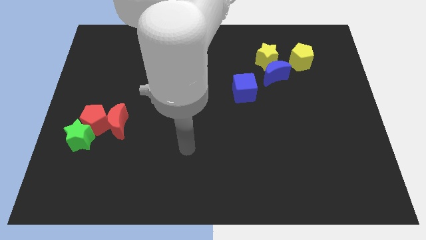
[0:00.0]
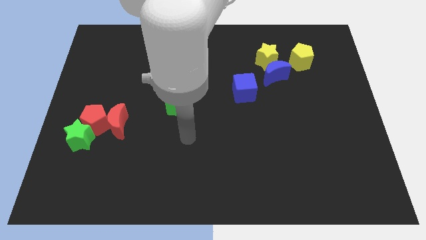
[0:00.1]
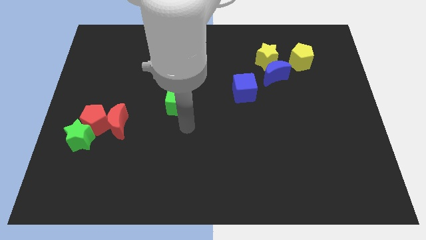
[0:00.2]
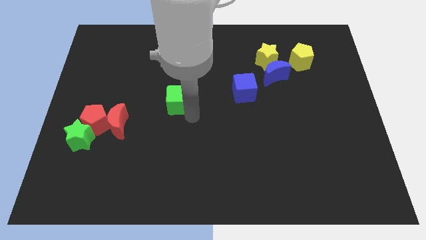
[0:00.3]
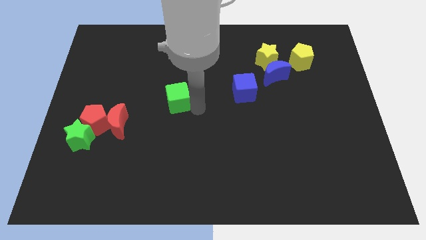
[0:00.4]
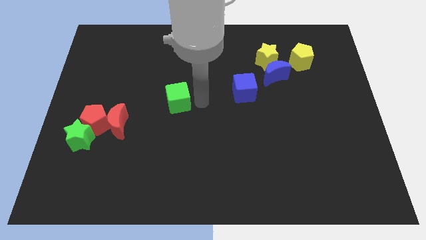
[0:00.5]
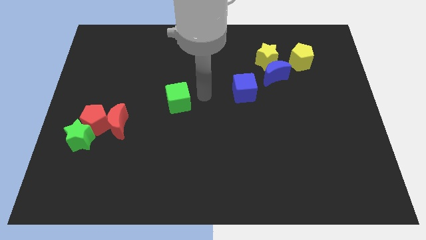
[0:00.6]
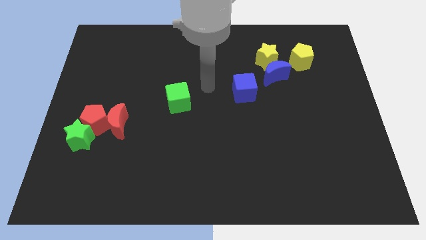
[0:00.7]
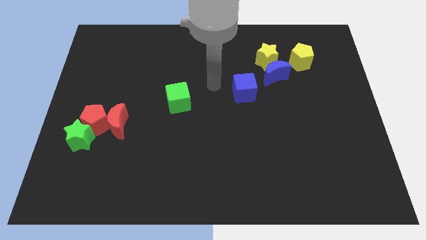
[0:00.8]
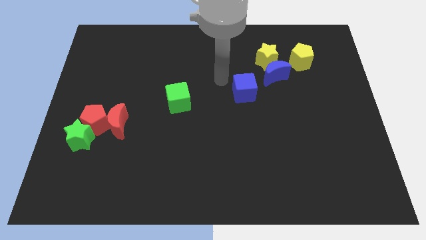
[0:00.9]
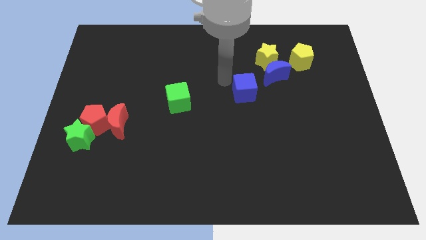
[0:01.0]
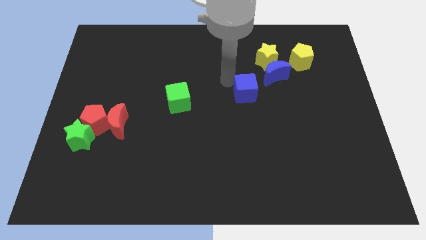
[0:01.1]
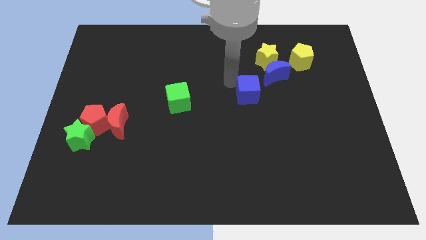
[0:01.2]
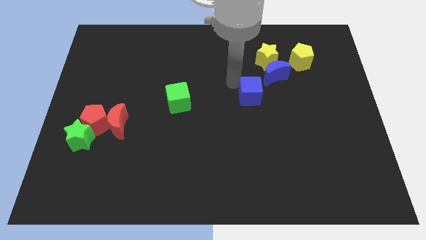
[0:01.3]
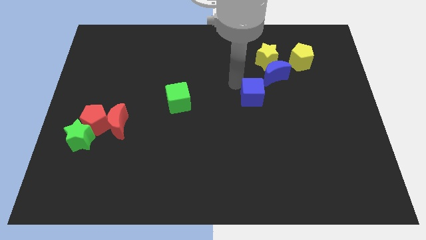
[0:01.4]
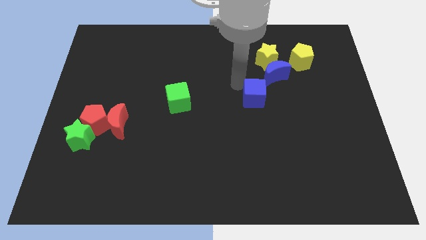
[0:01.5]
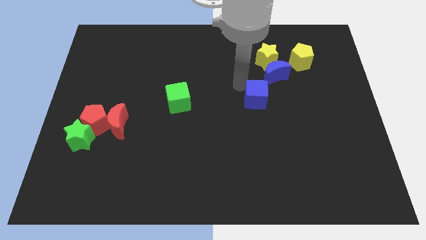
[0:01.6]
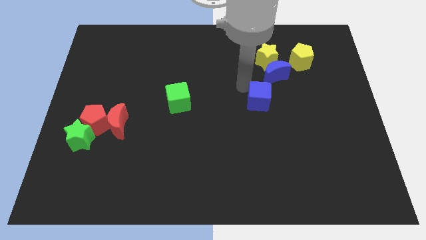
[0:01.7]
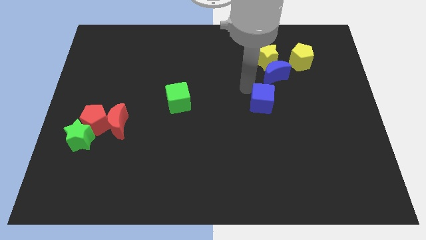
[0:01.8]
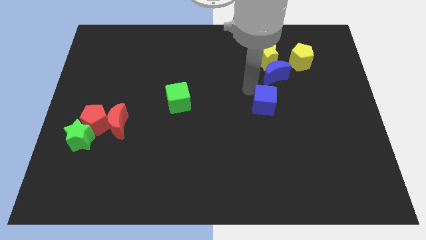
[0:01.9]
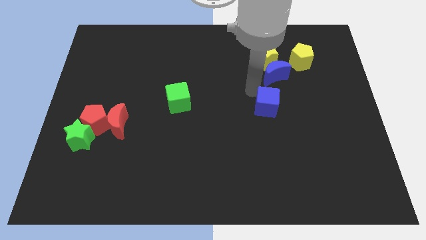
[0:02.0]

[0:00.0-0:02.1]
slightly push the blue cube down and right diagonally

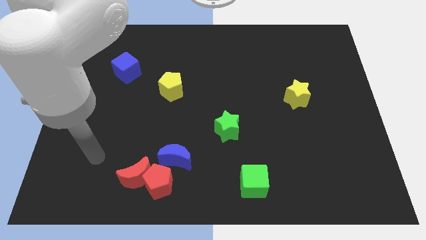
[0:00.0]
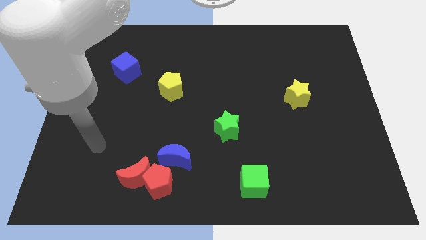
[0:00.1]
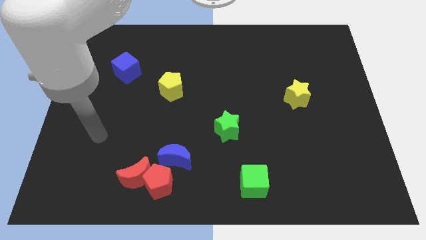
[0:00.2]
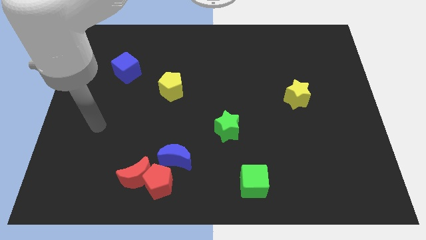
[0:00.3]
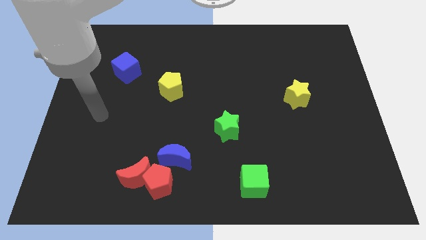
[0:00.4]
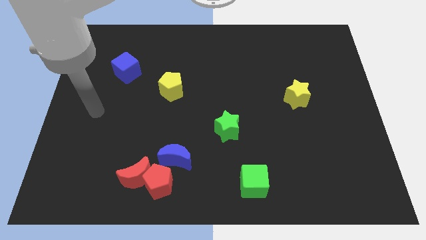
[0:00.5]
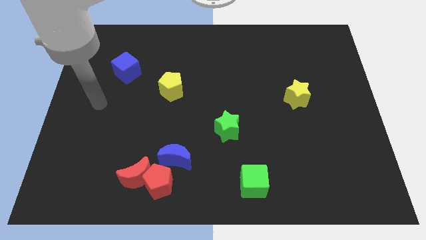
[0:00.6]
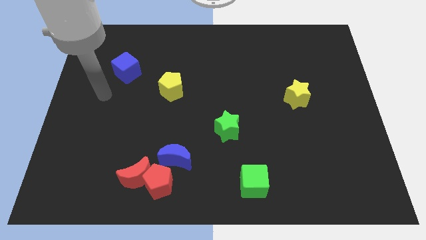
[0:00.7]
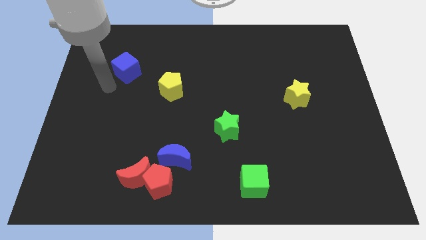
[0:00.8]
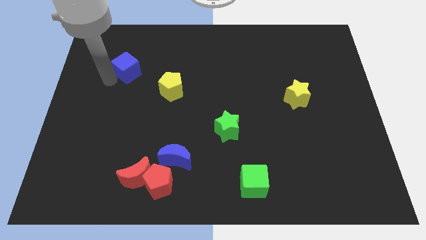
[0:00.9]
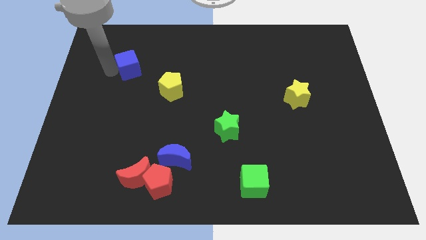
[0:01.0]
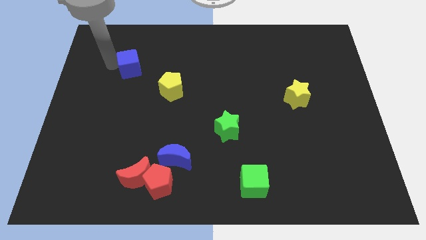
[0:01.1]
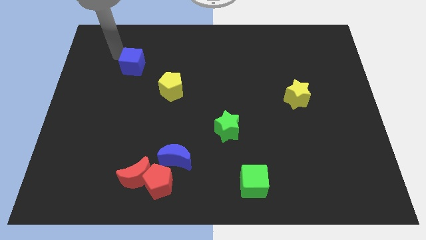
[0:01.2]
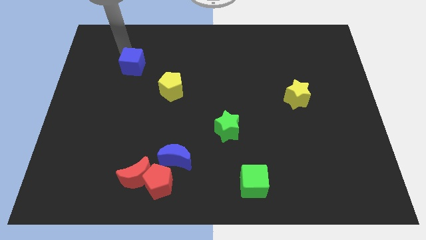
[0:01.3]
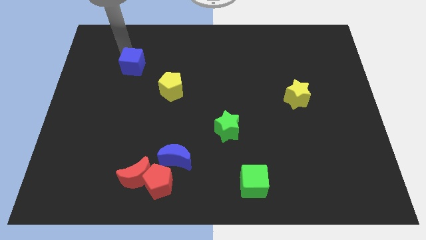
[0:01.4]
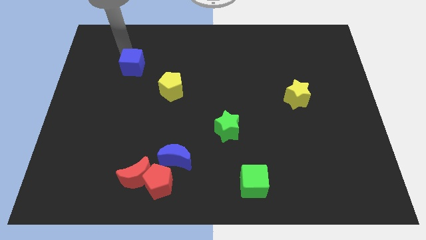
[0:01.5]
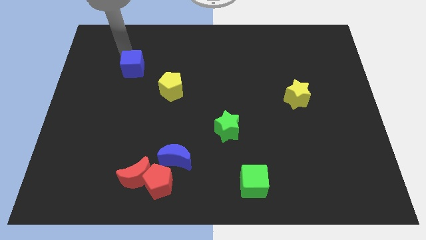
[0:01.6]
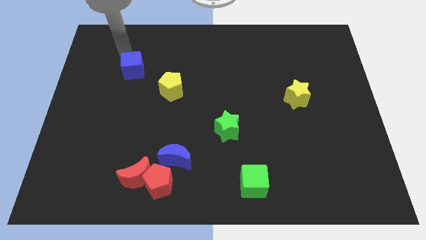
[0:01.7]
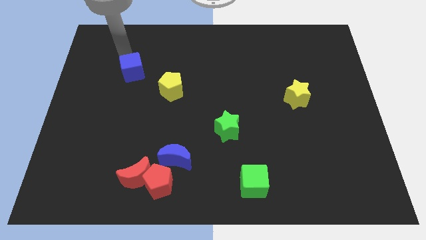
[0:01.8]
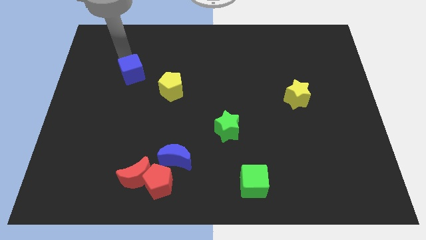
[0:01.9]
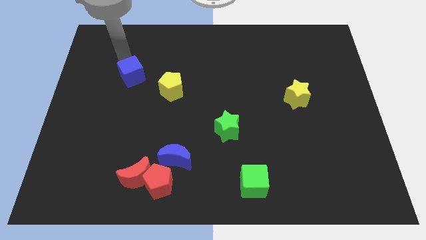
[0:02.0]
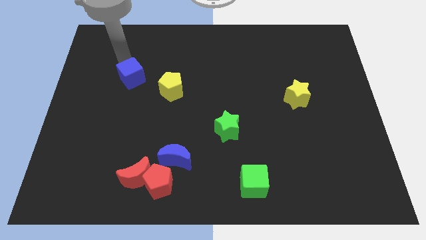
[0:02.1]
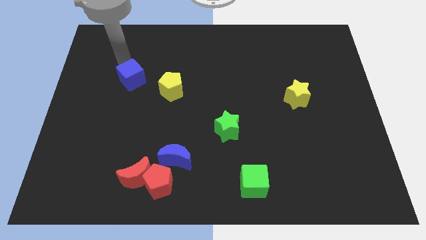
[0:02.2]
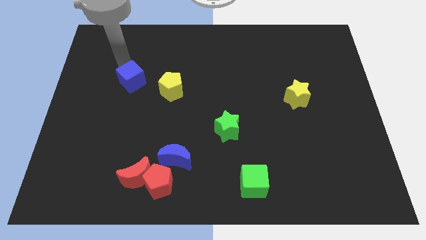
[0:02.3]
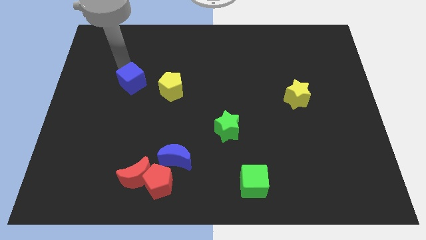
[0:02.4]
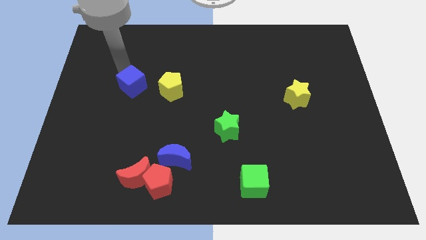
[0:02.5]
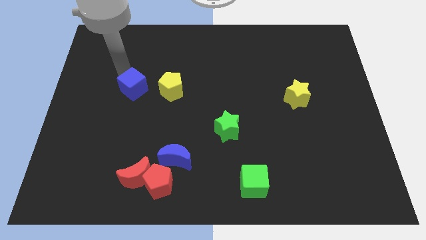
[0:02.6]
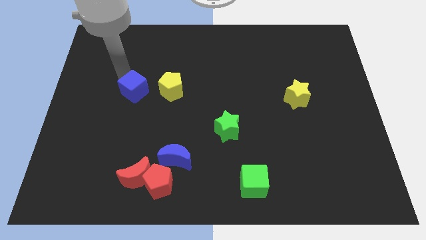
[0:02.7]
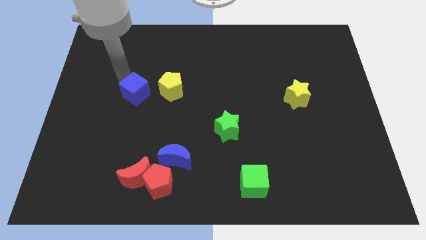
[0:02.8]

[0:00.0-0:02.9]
slightly slide the blue cube down and to the right diagonally

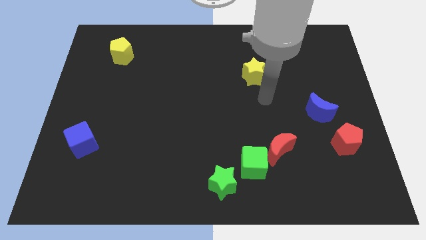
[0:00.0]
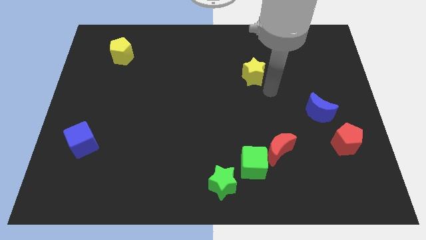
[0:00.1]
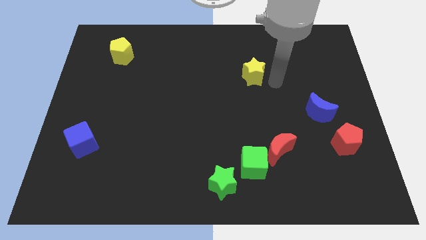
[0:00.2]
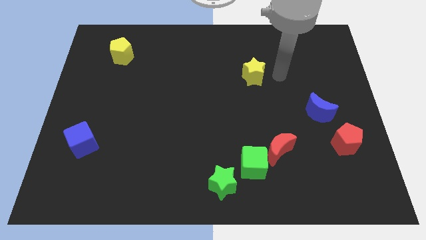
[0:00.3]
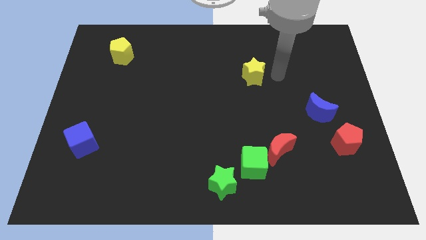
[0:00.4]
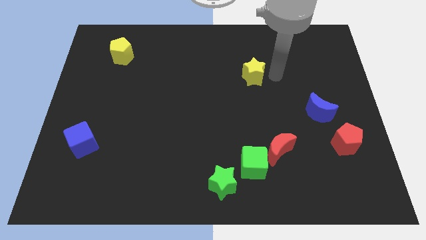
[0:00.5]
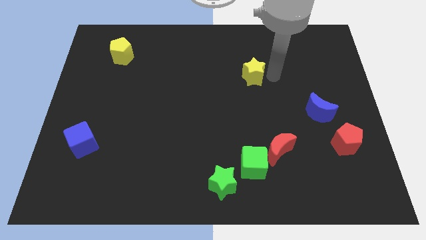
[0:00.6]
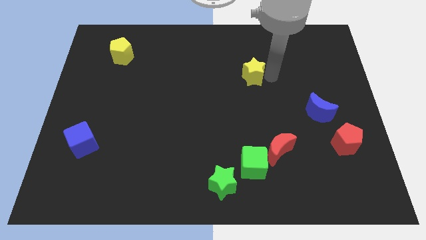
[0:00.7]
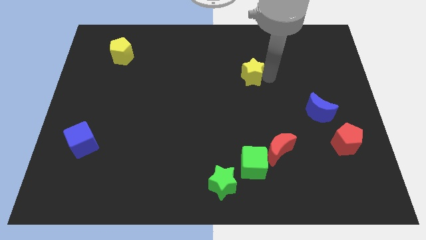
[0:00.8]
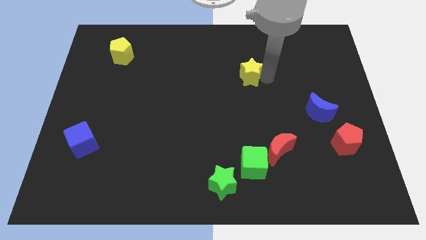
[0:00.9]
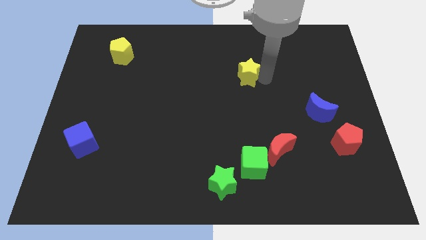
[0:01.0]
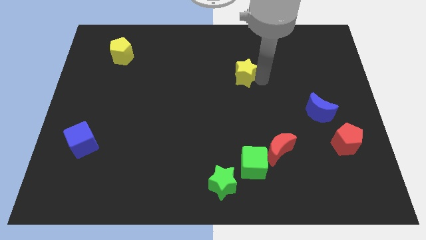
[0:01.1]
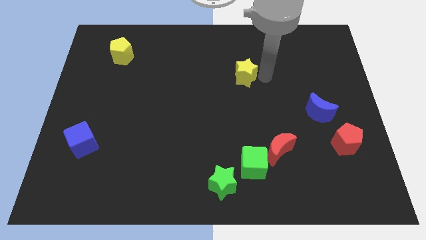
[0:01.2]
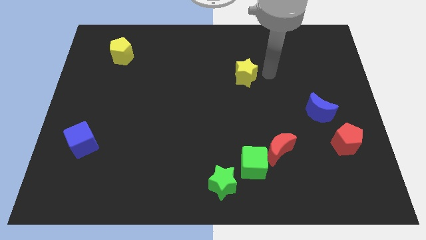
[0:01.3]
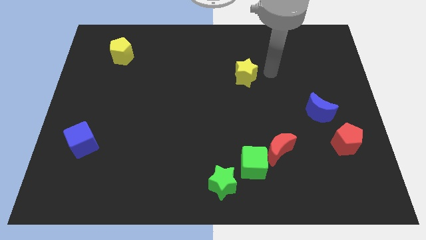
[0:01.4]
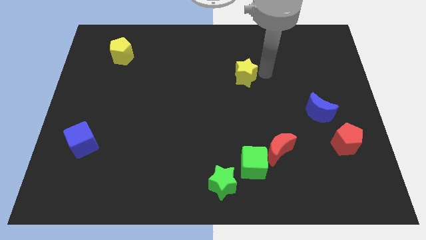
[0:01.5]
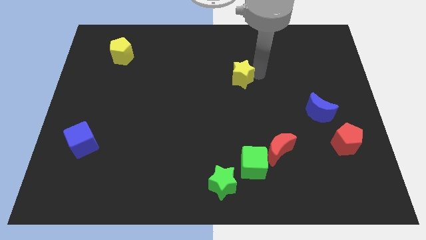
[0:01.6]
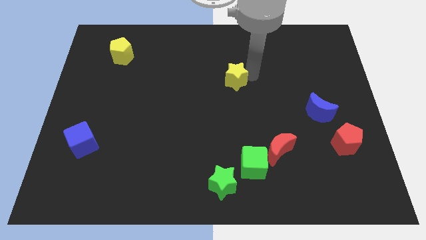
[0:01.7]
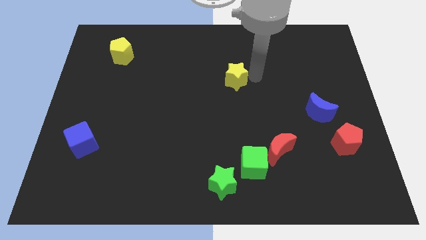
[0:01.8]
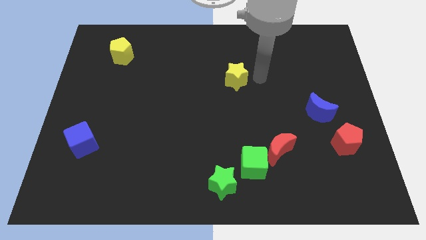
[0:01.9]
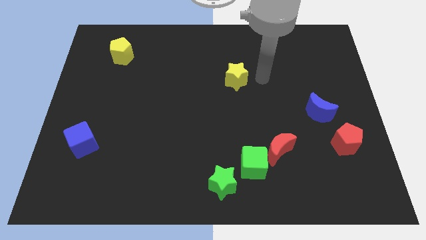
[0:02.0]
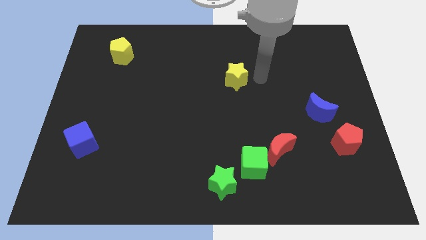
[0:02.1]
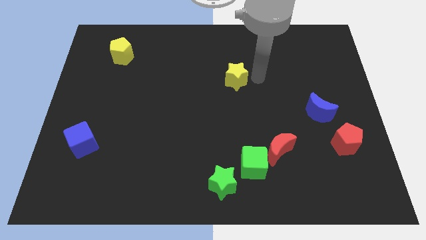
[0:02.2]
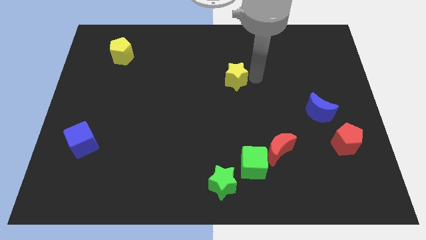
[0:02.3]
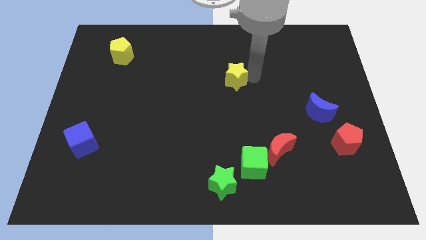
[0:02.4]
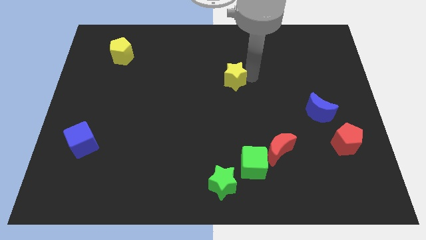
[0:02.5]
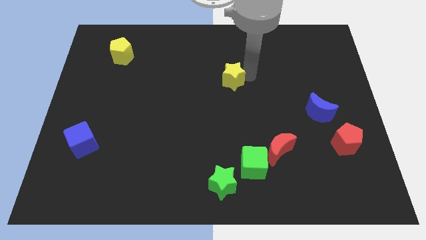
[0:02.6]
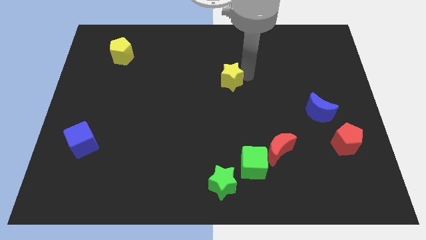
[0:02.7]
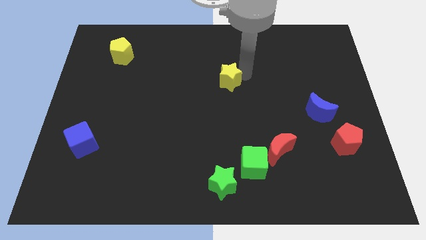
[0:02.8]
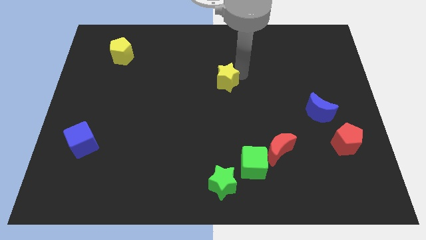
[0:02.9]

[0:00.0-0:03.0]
slightly push the yellow star to the left

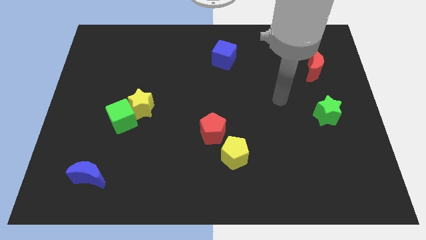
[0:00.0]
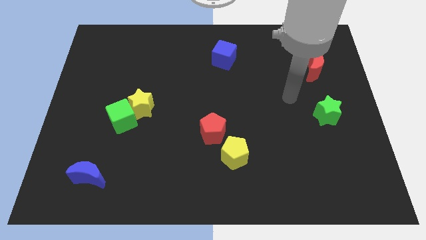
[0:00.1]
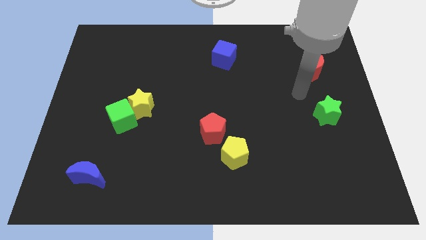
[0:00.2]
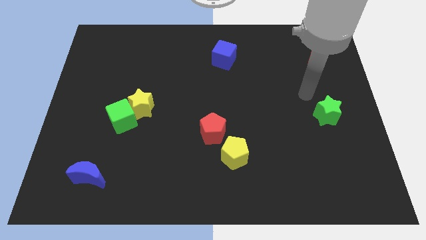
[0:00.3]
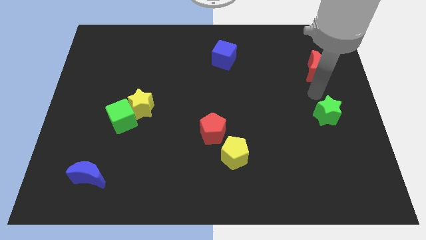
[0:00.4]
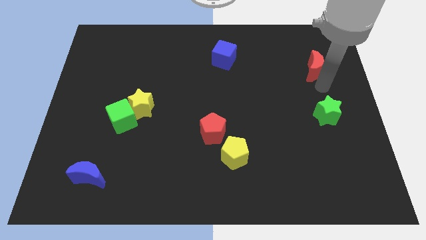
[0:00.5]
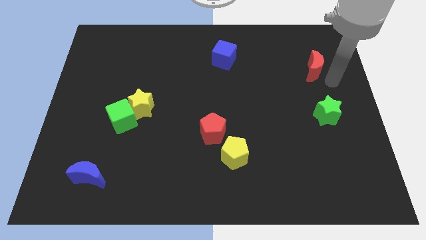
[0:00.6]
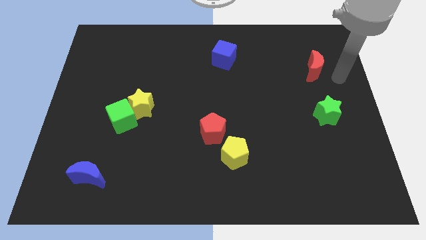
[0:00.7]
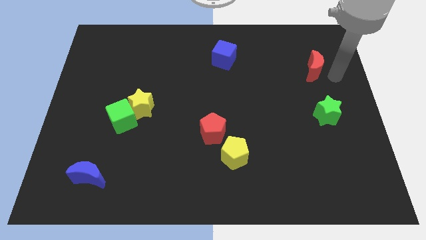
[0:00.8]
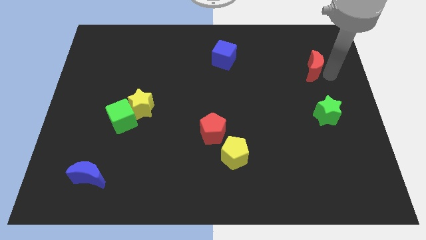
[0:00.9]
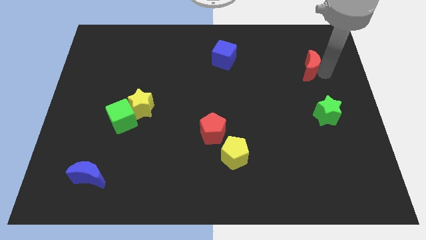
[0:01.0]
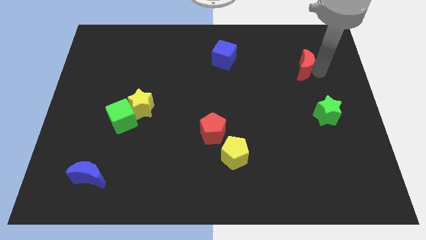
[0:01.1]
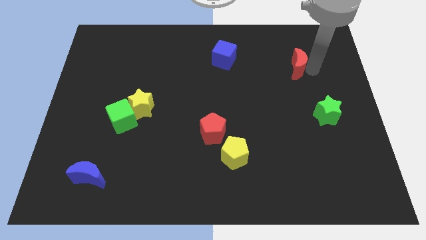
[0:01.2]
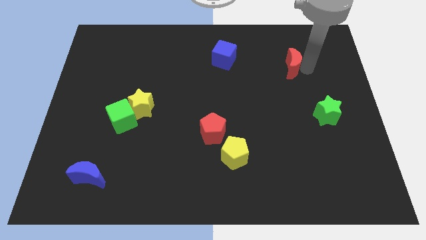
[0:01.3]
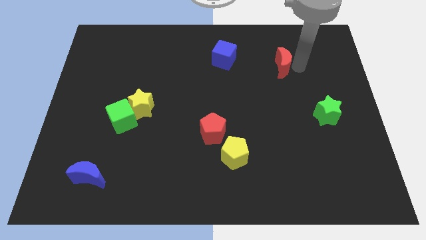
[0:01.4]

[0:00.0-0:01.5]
slide the red moon left a little
